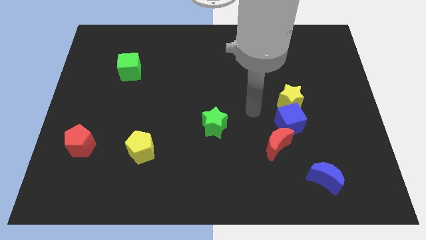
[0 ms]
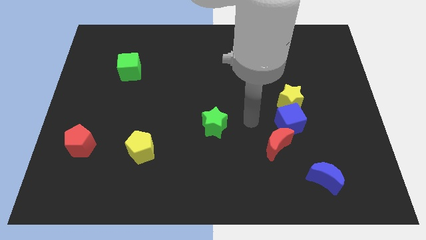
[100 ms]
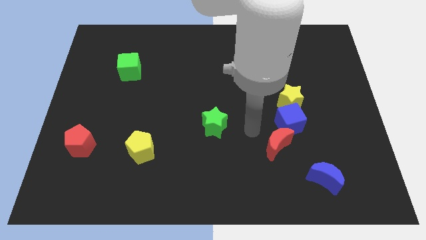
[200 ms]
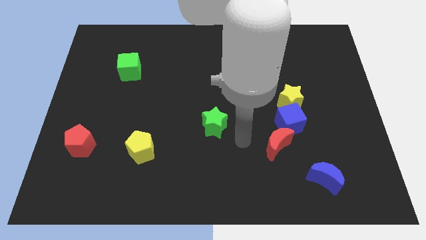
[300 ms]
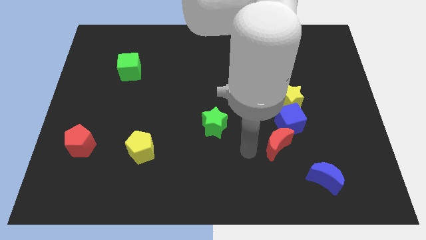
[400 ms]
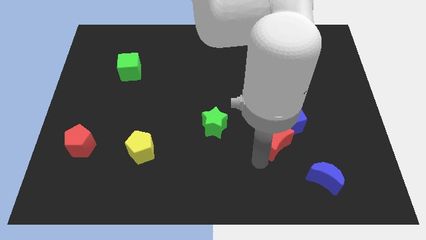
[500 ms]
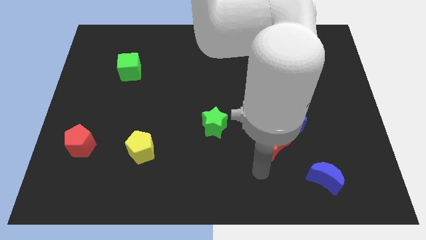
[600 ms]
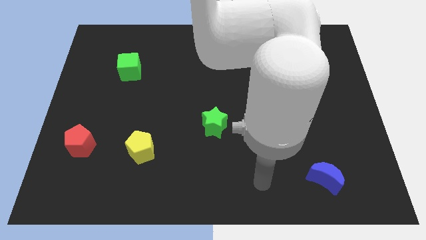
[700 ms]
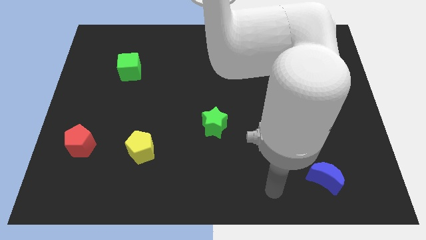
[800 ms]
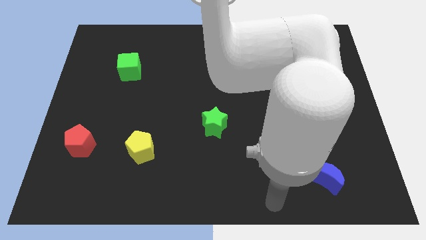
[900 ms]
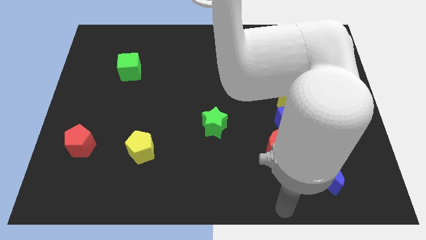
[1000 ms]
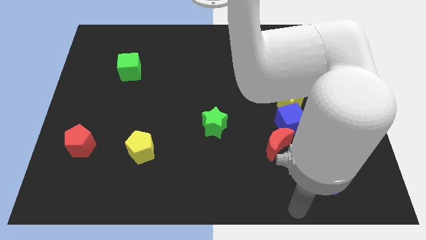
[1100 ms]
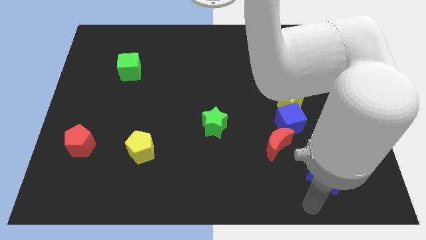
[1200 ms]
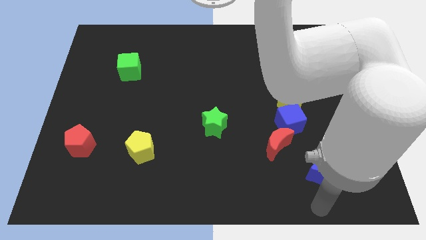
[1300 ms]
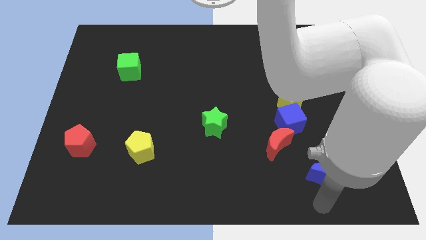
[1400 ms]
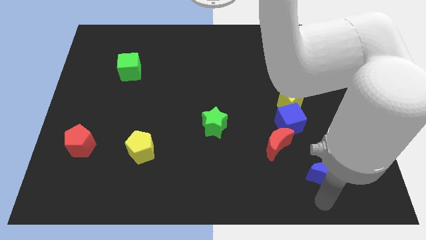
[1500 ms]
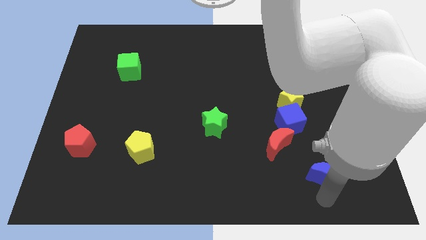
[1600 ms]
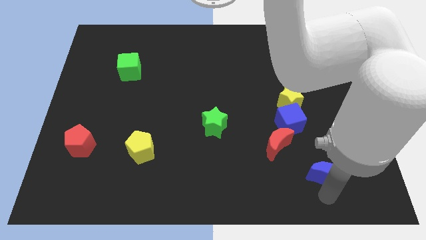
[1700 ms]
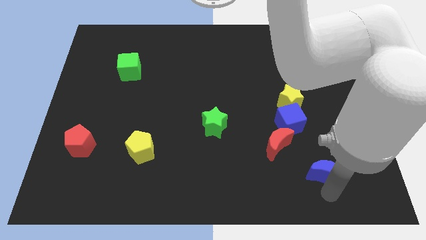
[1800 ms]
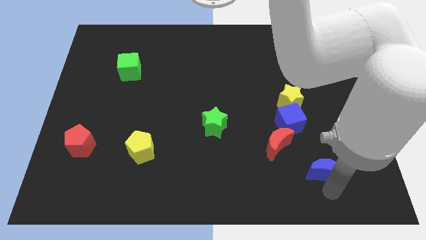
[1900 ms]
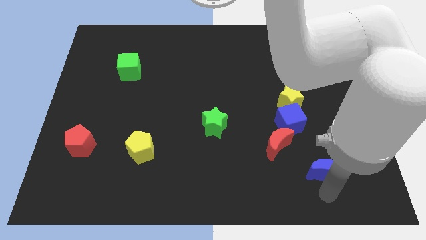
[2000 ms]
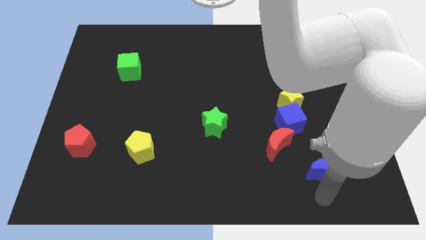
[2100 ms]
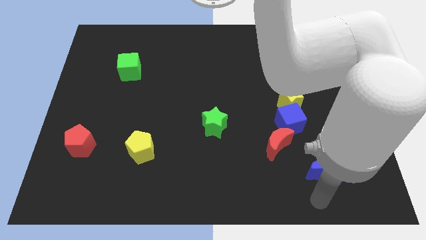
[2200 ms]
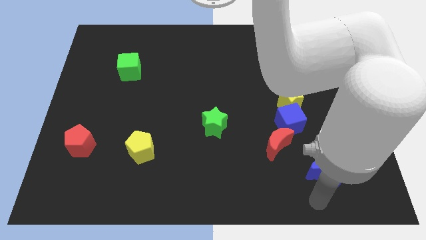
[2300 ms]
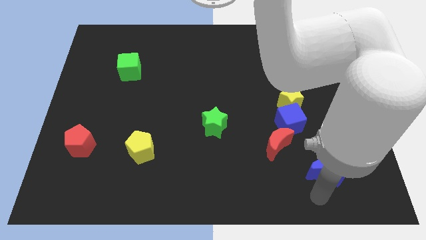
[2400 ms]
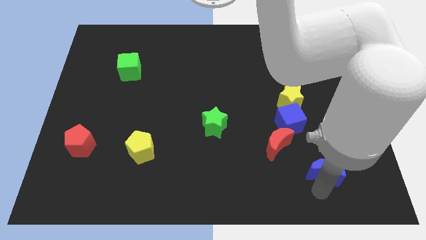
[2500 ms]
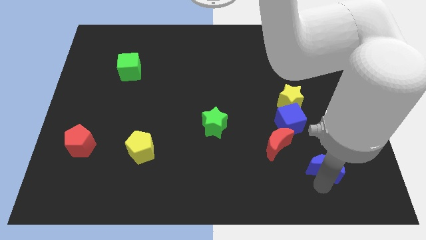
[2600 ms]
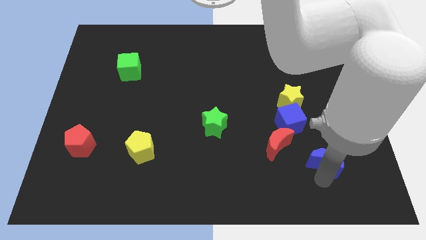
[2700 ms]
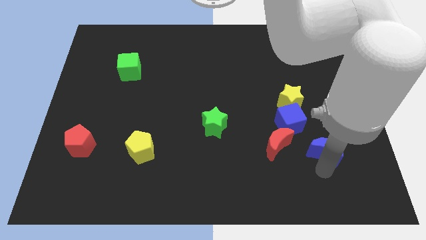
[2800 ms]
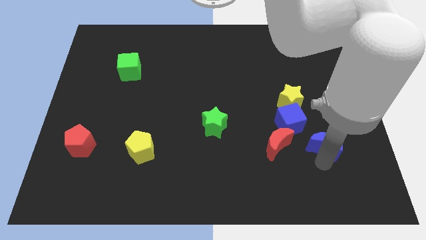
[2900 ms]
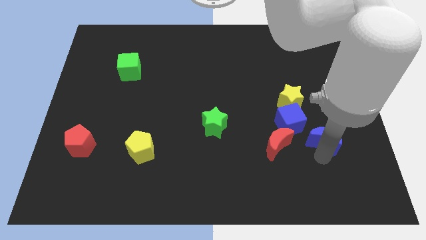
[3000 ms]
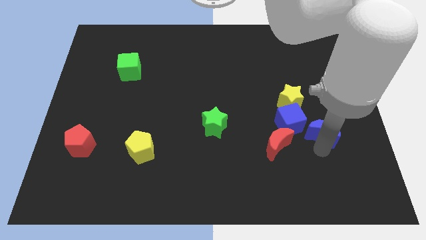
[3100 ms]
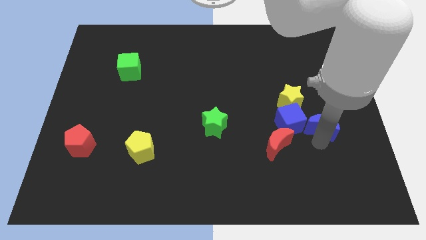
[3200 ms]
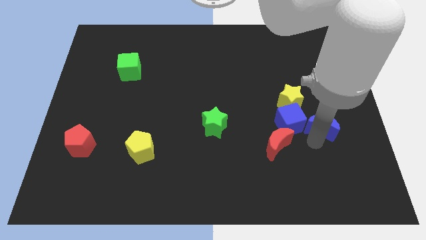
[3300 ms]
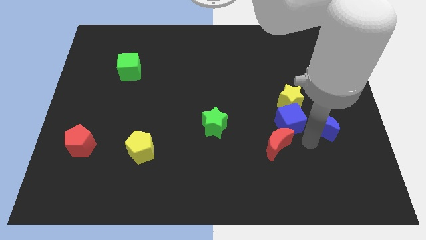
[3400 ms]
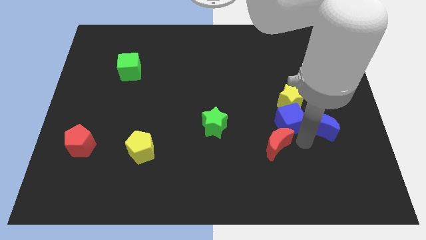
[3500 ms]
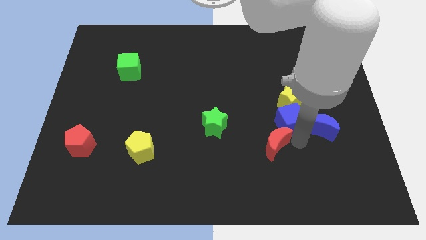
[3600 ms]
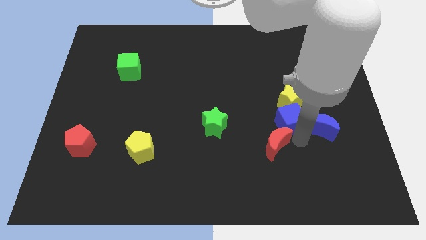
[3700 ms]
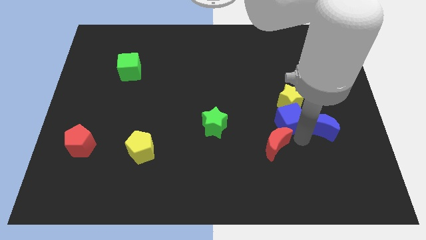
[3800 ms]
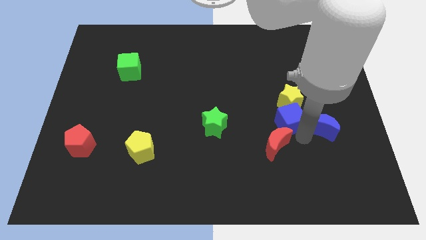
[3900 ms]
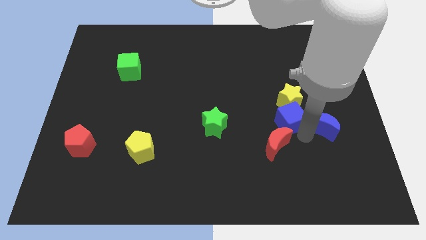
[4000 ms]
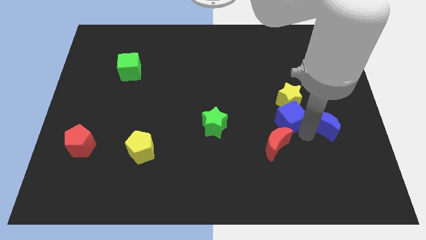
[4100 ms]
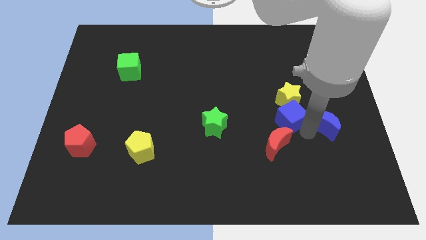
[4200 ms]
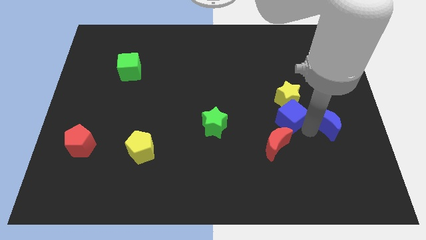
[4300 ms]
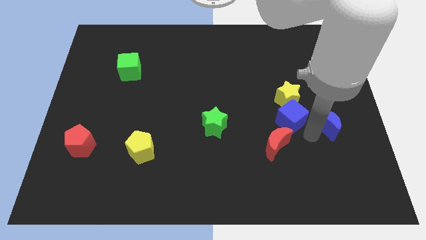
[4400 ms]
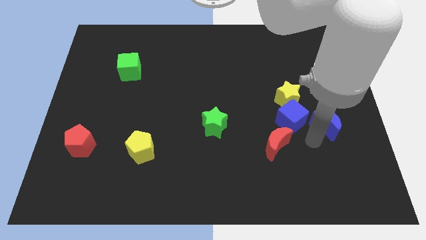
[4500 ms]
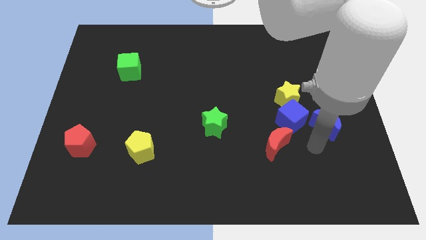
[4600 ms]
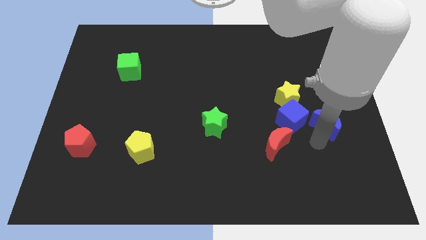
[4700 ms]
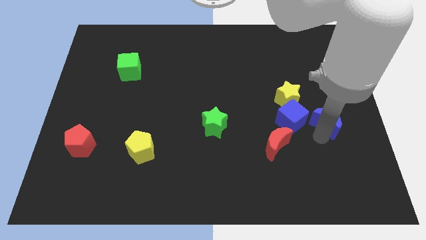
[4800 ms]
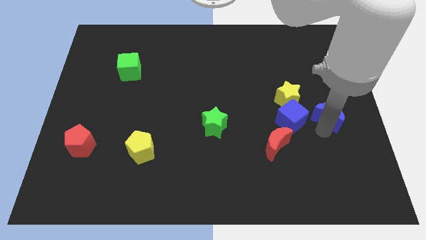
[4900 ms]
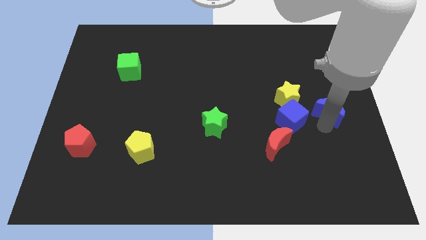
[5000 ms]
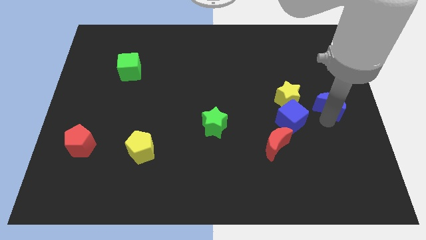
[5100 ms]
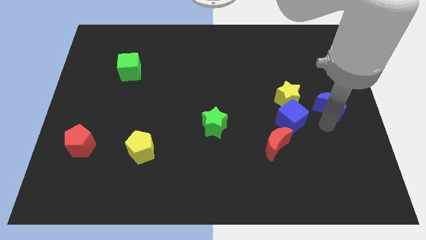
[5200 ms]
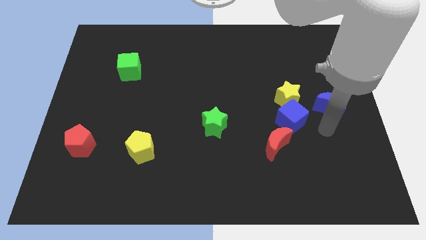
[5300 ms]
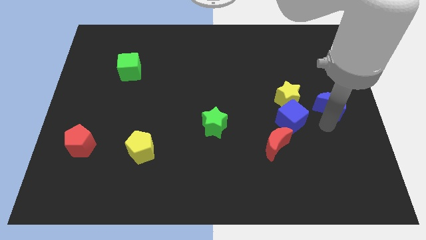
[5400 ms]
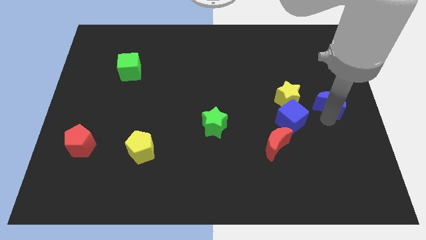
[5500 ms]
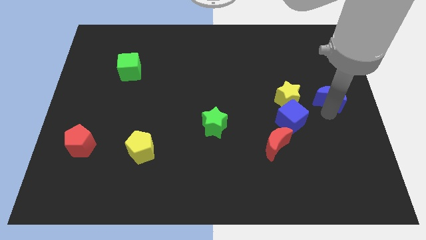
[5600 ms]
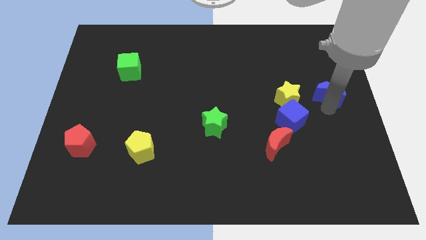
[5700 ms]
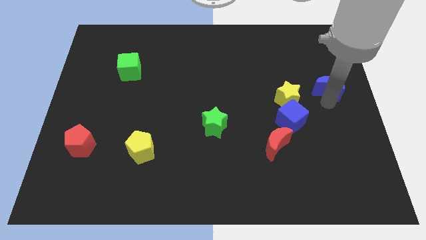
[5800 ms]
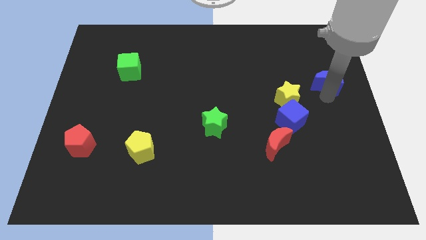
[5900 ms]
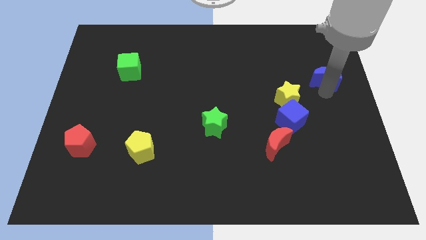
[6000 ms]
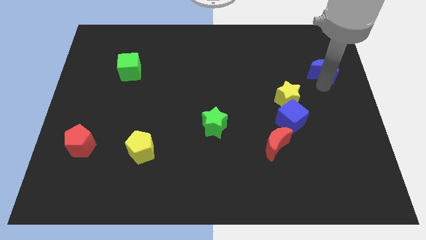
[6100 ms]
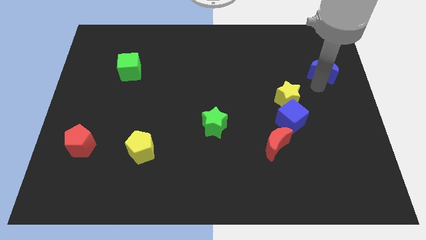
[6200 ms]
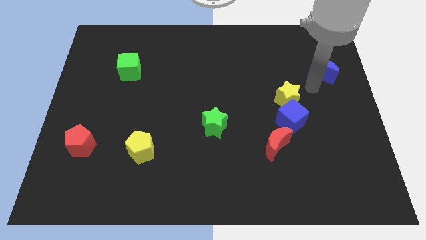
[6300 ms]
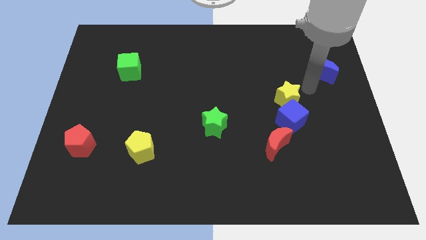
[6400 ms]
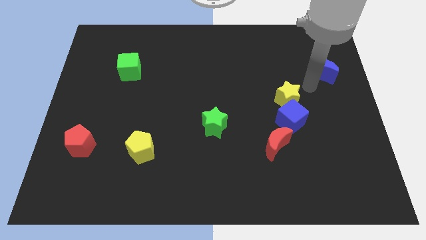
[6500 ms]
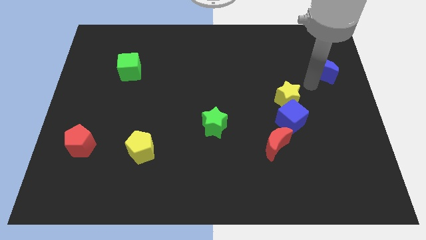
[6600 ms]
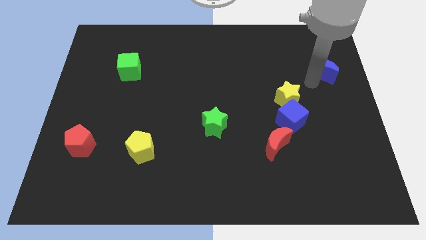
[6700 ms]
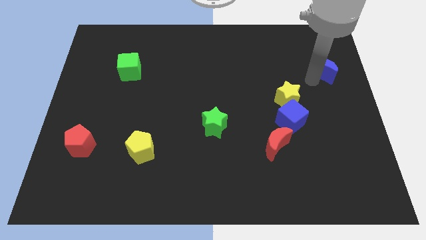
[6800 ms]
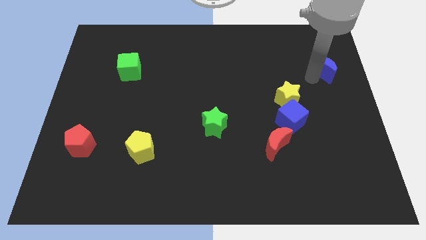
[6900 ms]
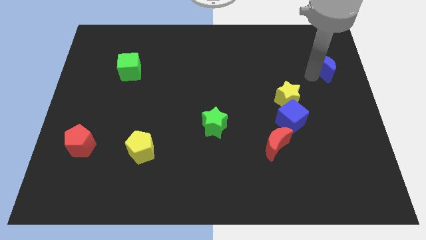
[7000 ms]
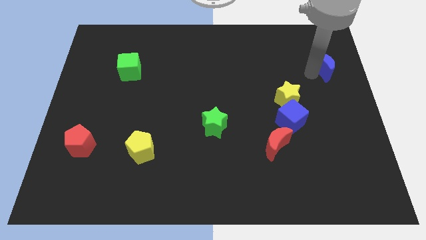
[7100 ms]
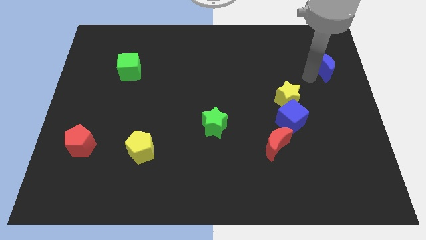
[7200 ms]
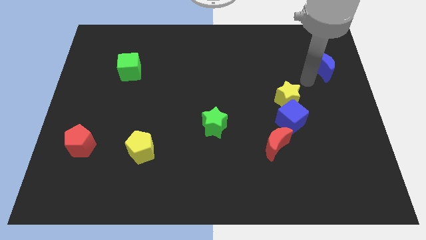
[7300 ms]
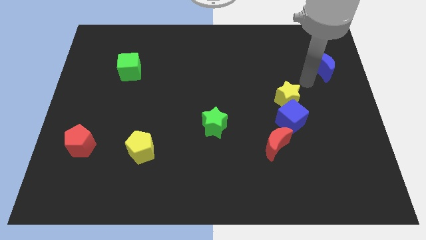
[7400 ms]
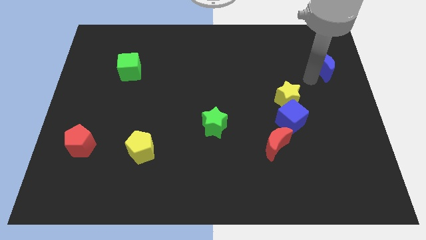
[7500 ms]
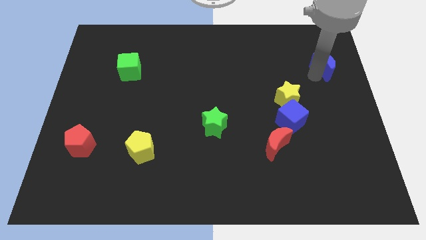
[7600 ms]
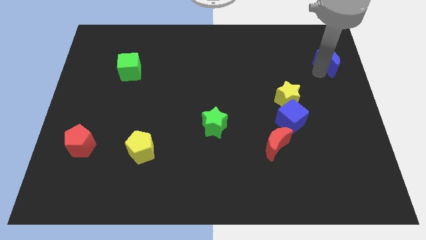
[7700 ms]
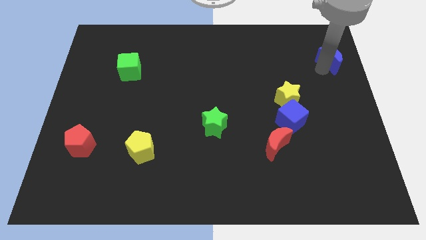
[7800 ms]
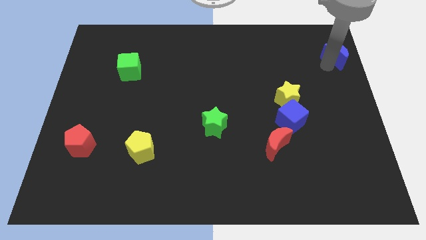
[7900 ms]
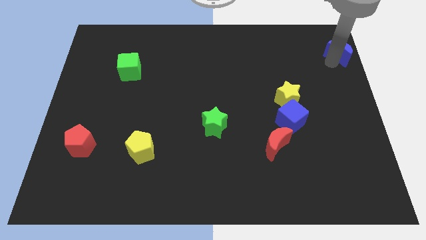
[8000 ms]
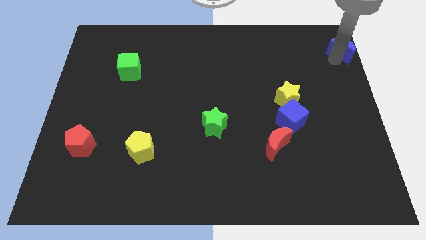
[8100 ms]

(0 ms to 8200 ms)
put the blue moon to the top right corner
